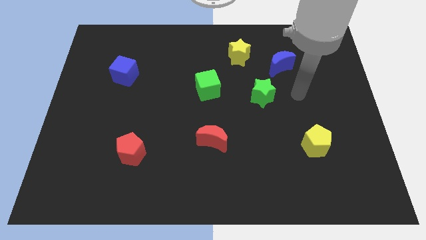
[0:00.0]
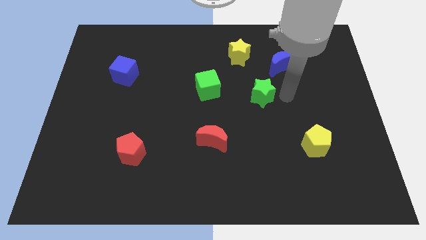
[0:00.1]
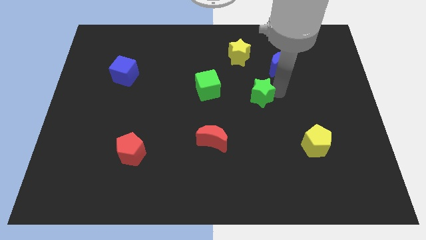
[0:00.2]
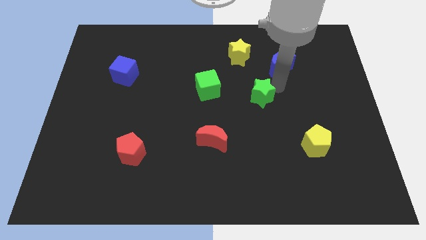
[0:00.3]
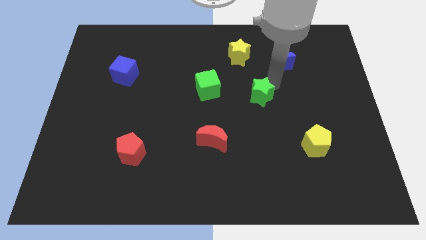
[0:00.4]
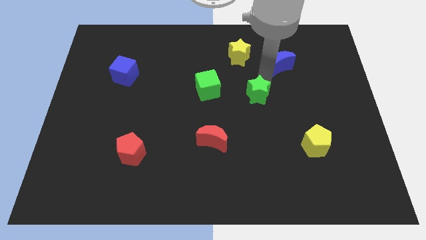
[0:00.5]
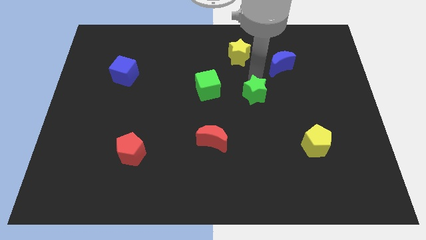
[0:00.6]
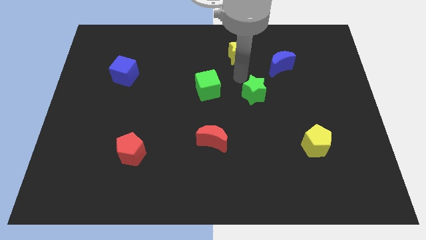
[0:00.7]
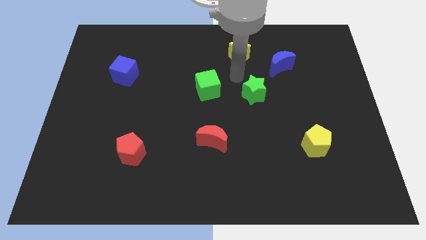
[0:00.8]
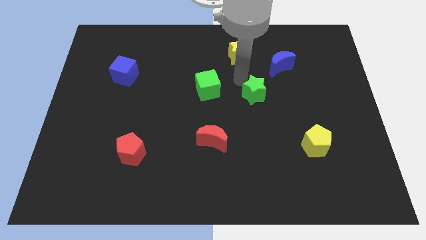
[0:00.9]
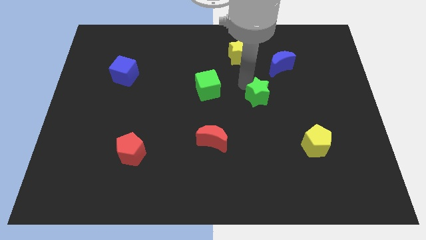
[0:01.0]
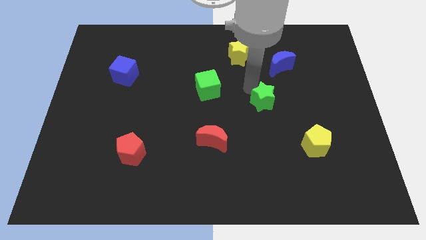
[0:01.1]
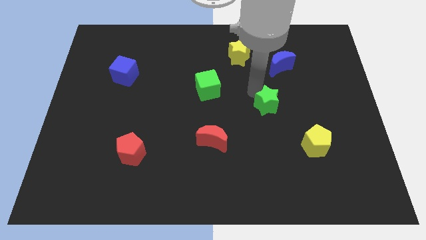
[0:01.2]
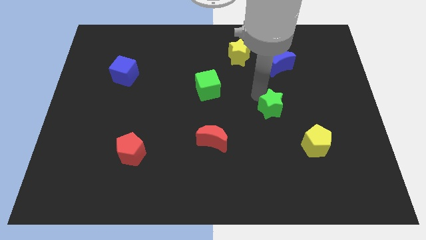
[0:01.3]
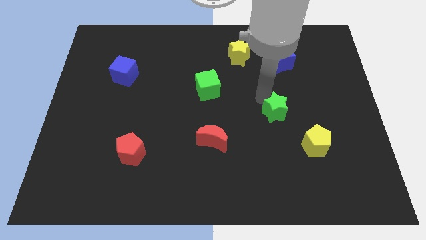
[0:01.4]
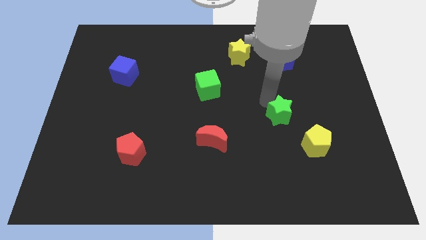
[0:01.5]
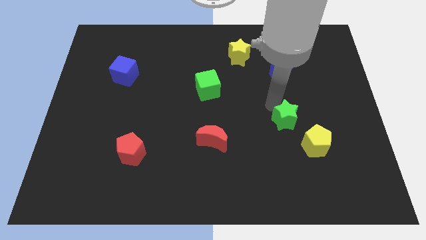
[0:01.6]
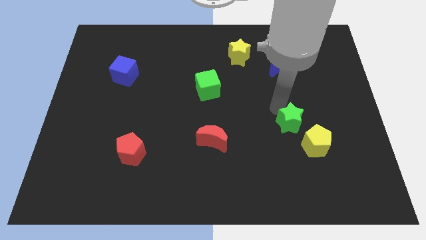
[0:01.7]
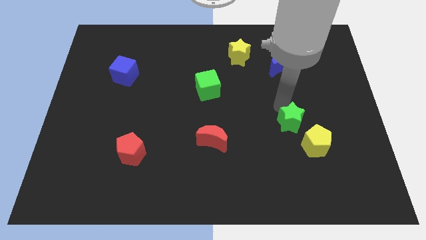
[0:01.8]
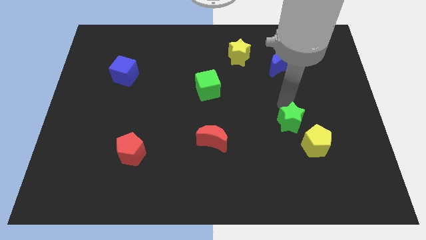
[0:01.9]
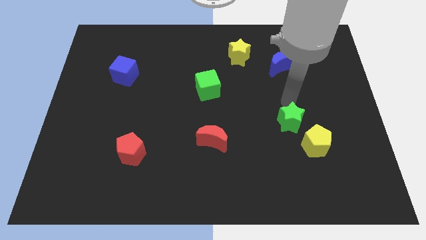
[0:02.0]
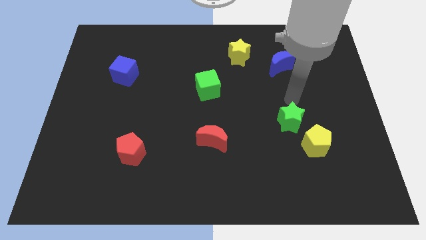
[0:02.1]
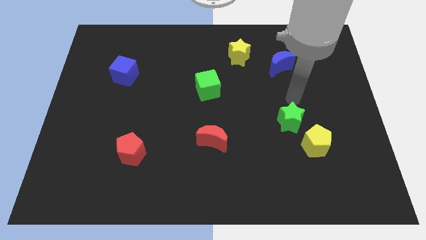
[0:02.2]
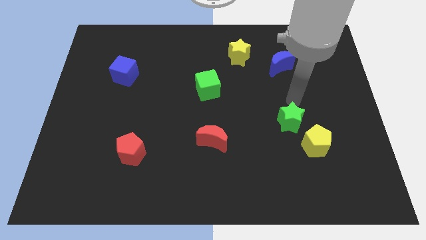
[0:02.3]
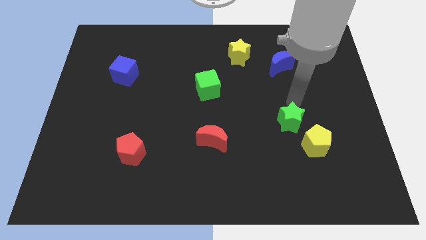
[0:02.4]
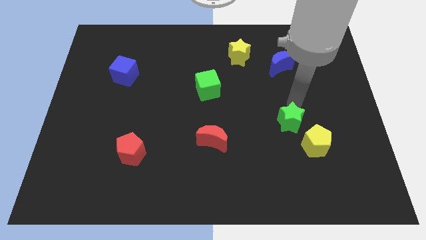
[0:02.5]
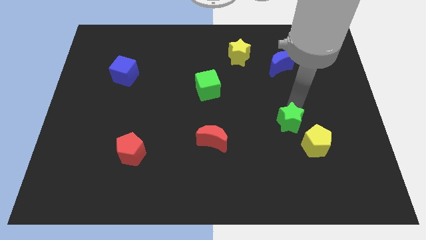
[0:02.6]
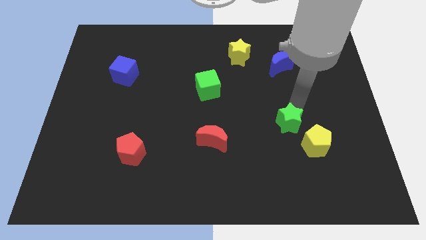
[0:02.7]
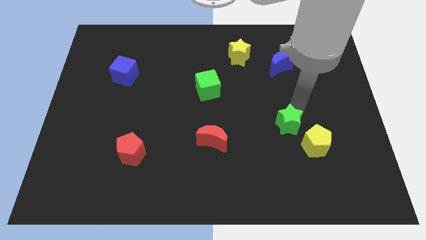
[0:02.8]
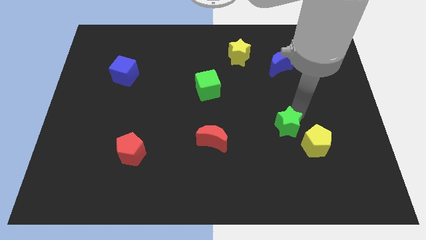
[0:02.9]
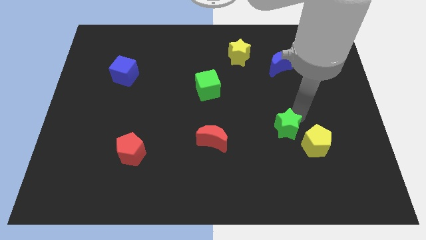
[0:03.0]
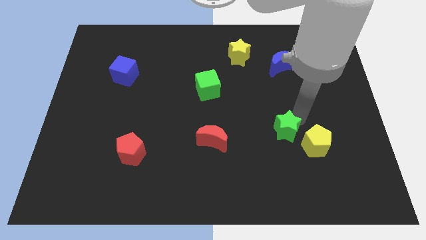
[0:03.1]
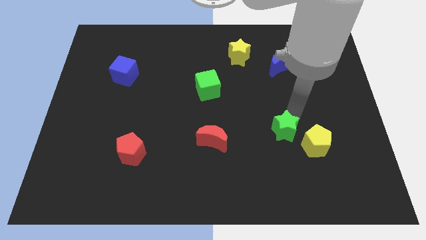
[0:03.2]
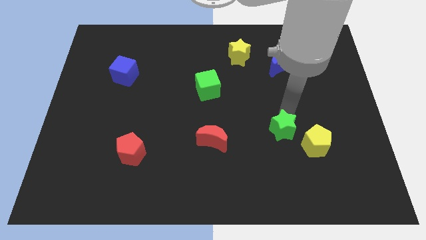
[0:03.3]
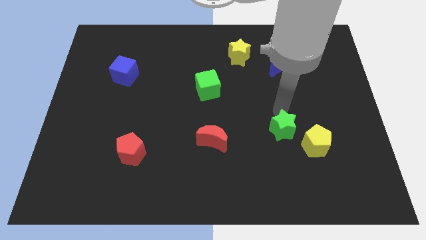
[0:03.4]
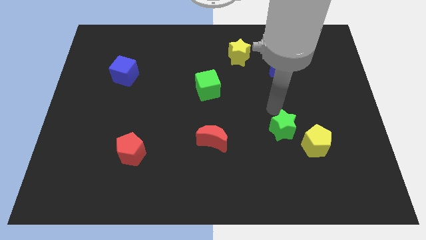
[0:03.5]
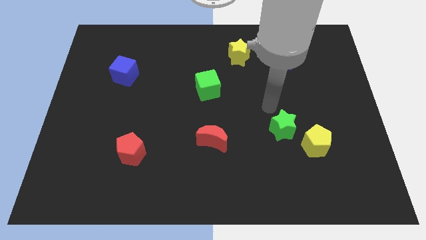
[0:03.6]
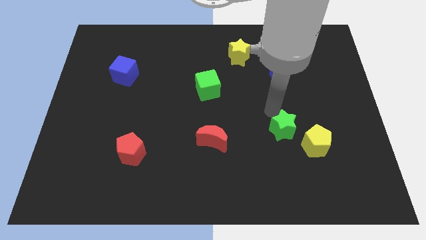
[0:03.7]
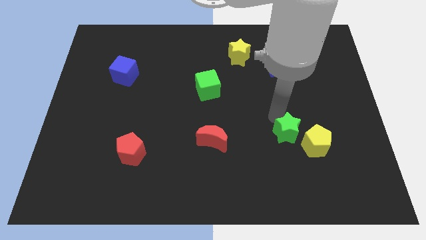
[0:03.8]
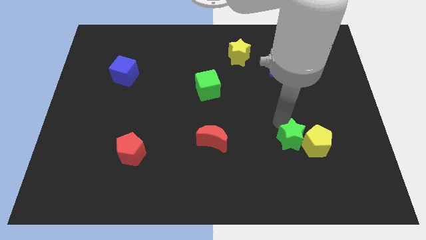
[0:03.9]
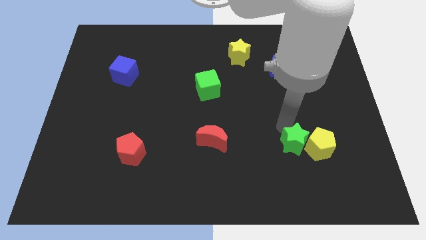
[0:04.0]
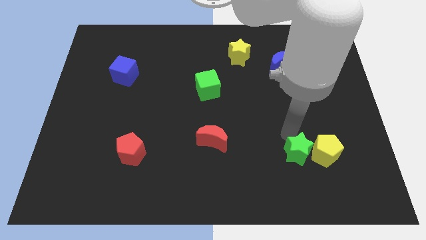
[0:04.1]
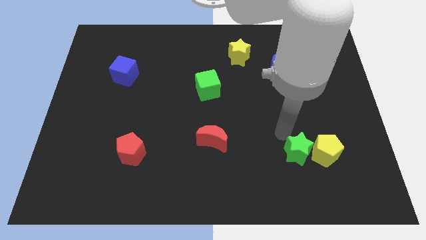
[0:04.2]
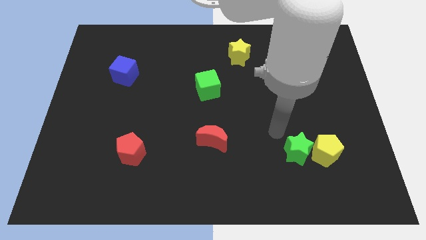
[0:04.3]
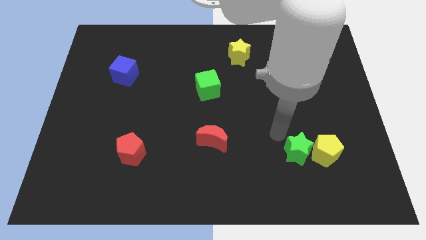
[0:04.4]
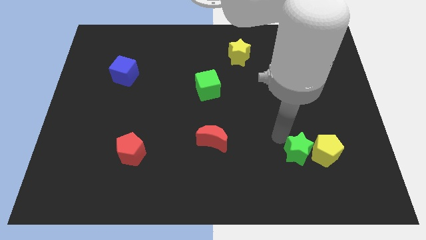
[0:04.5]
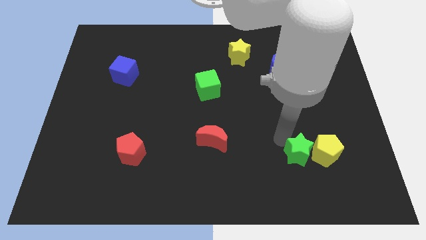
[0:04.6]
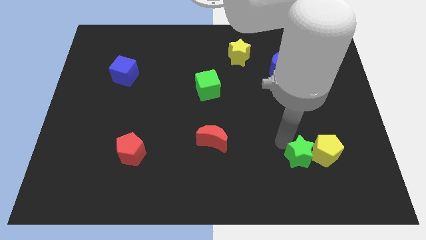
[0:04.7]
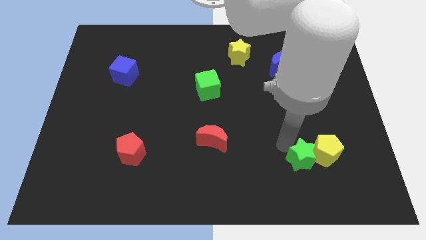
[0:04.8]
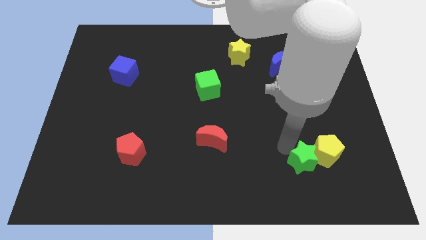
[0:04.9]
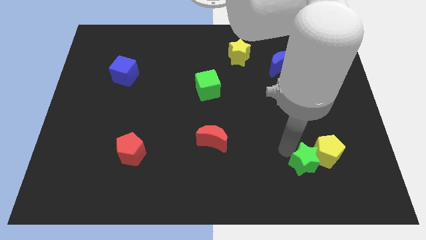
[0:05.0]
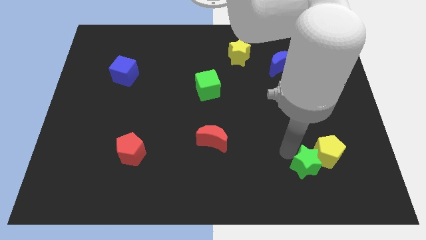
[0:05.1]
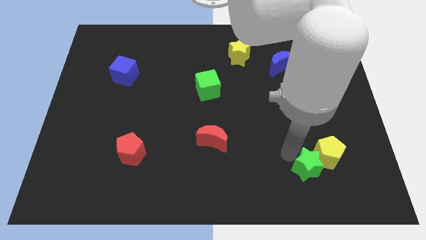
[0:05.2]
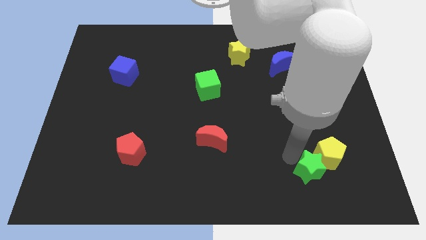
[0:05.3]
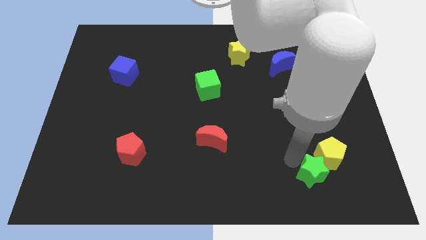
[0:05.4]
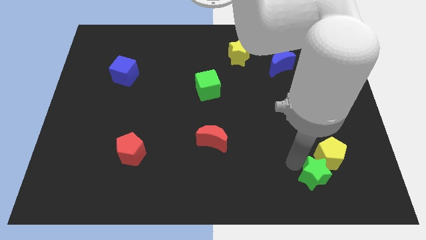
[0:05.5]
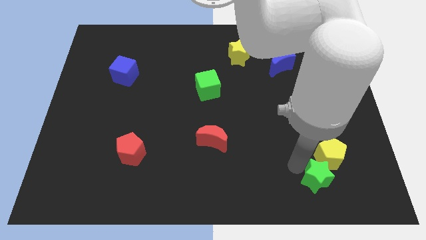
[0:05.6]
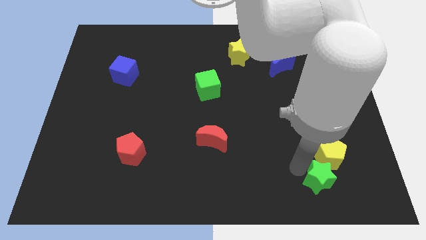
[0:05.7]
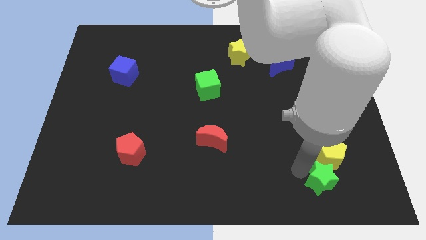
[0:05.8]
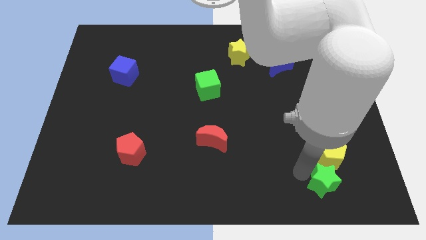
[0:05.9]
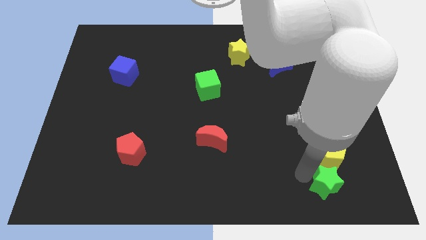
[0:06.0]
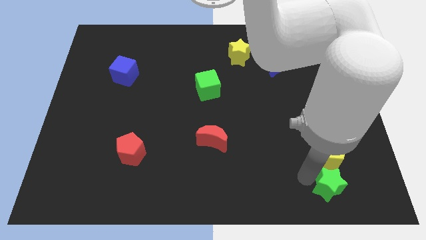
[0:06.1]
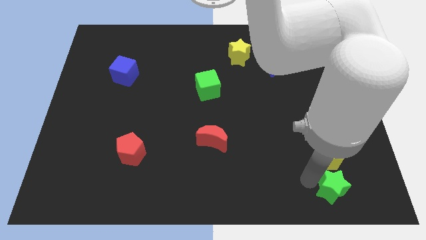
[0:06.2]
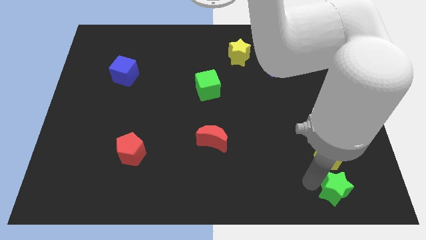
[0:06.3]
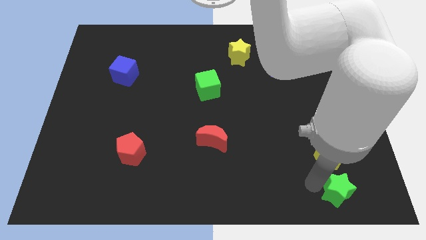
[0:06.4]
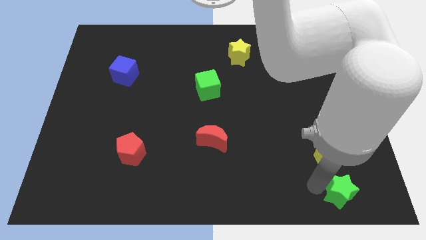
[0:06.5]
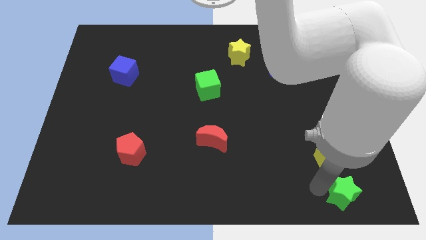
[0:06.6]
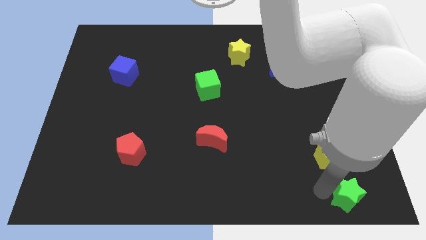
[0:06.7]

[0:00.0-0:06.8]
slide the green star to the lower right corner
